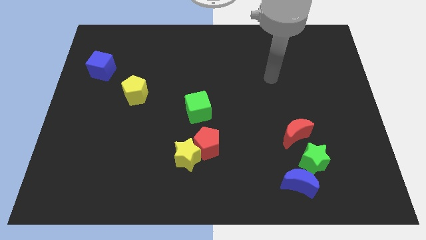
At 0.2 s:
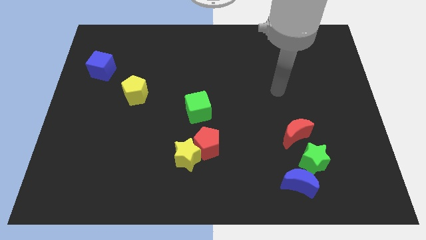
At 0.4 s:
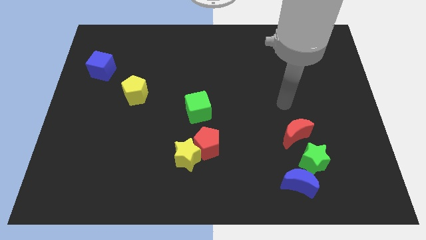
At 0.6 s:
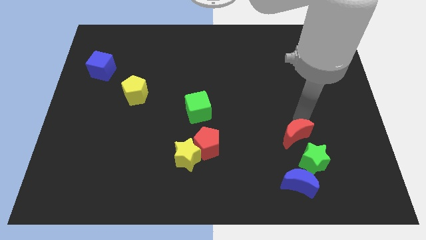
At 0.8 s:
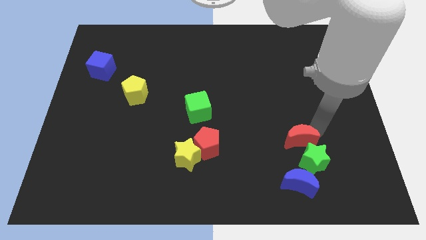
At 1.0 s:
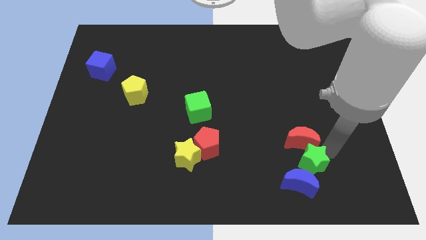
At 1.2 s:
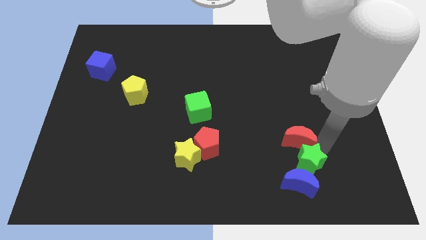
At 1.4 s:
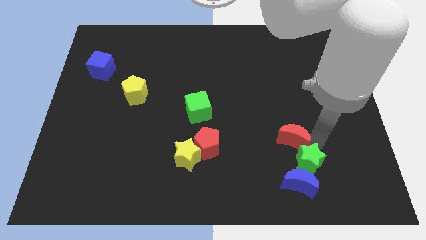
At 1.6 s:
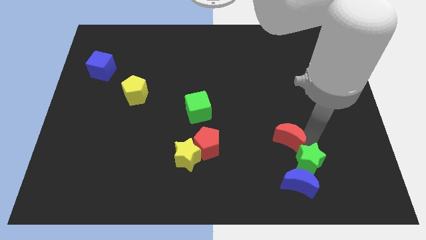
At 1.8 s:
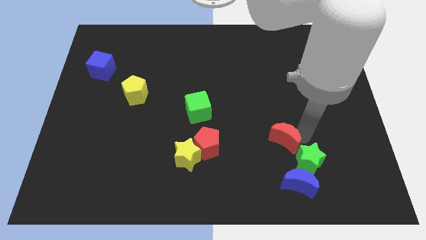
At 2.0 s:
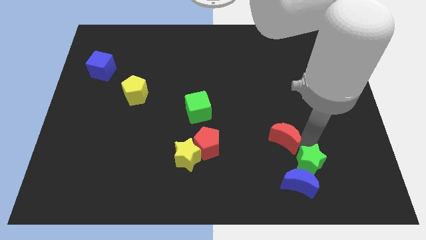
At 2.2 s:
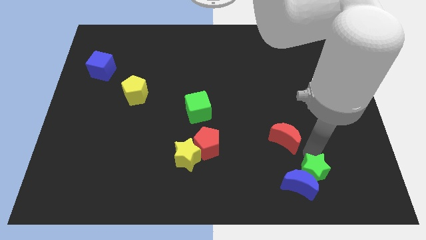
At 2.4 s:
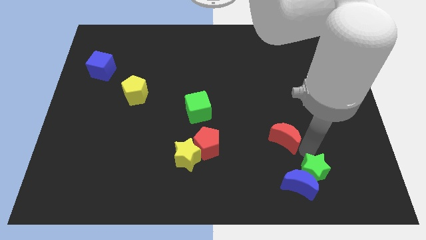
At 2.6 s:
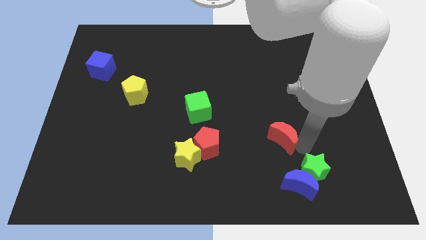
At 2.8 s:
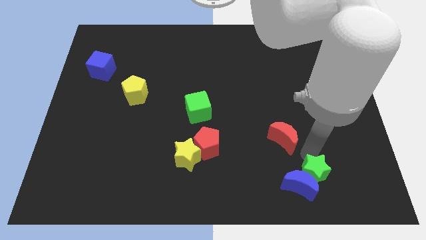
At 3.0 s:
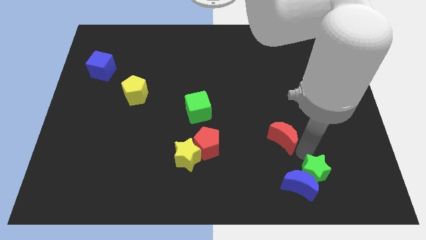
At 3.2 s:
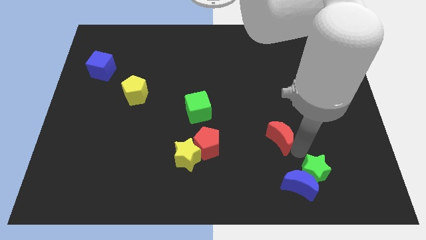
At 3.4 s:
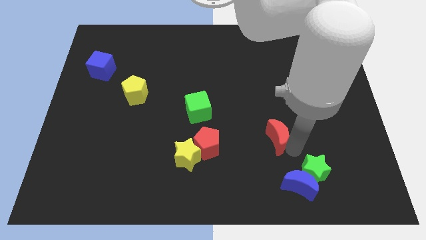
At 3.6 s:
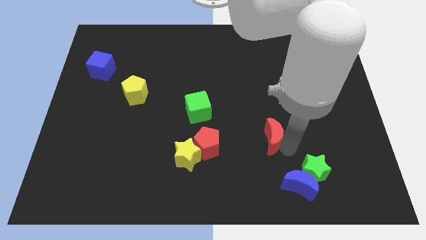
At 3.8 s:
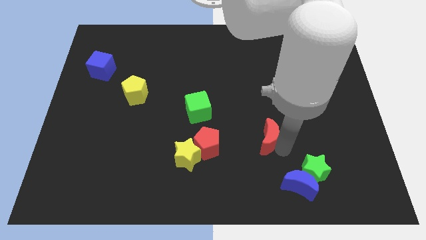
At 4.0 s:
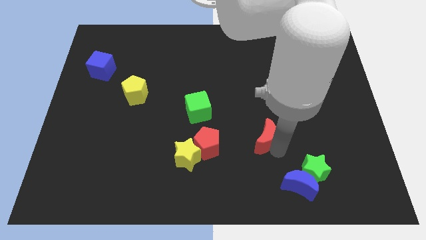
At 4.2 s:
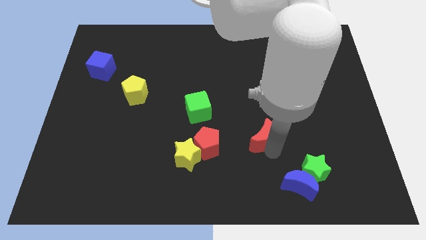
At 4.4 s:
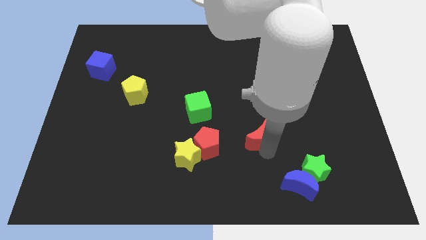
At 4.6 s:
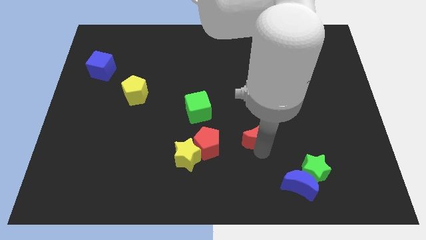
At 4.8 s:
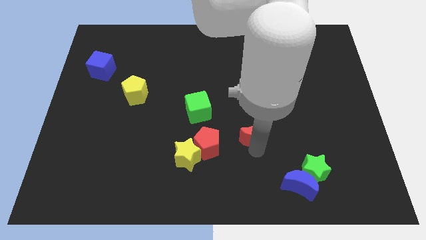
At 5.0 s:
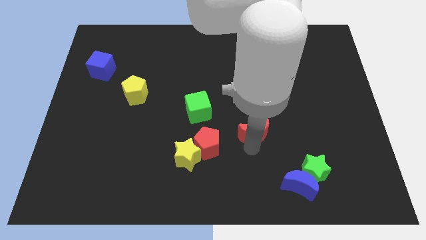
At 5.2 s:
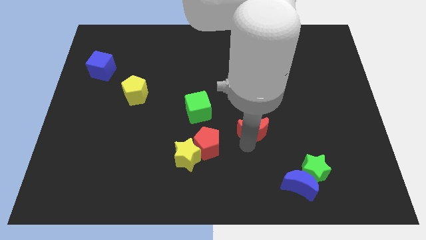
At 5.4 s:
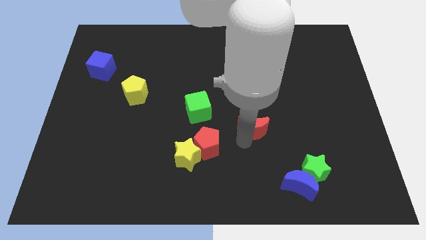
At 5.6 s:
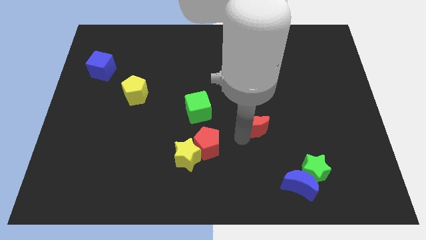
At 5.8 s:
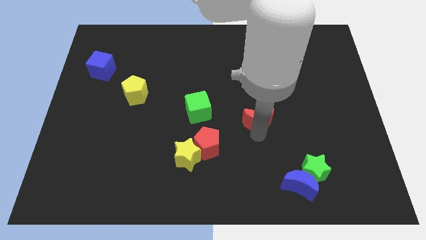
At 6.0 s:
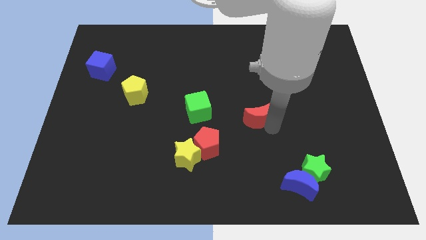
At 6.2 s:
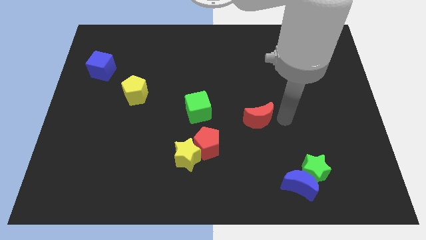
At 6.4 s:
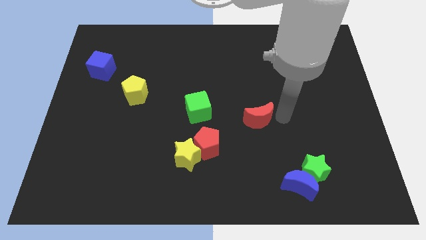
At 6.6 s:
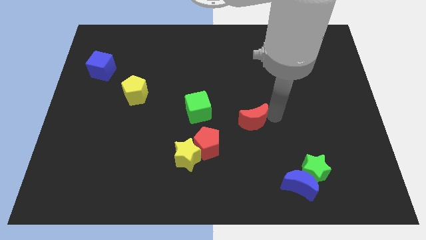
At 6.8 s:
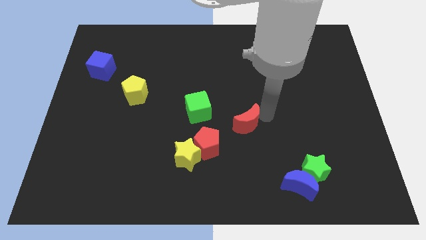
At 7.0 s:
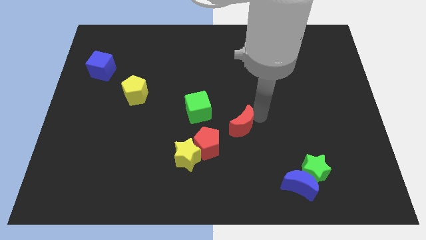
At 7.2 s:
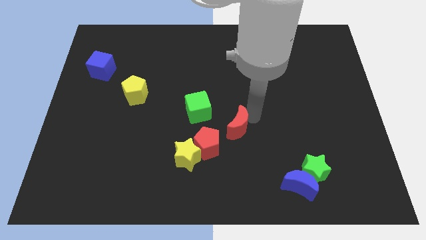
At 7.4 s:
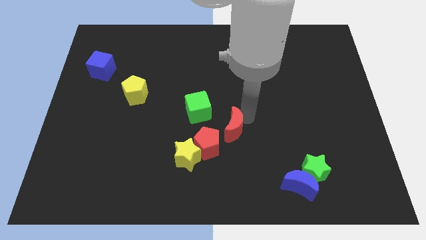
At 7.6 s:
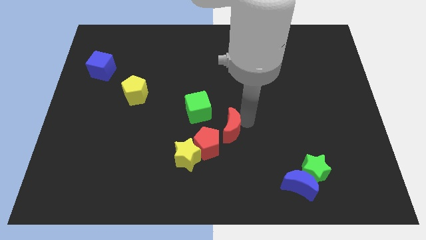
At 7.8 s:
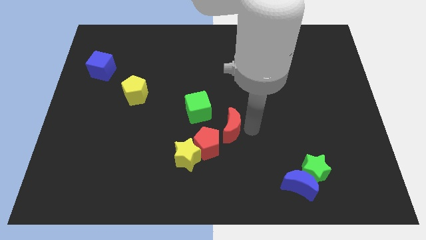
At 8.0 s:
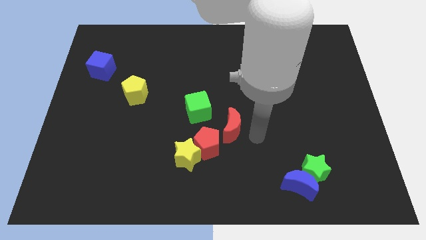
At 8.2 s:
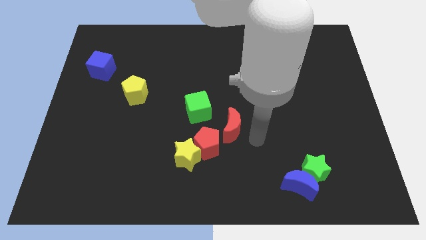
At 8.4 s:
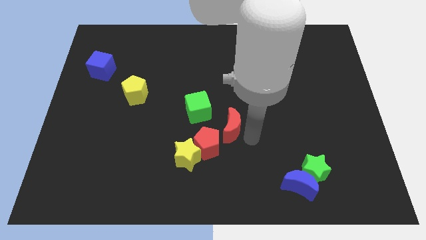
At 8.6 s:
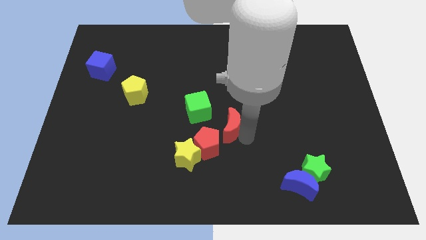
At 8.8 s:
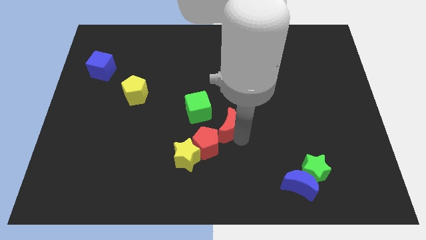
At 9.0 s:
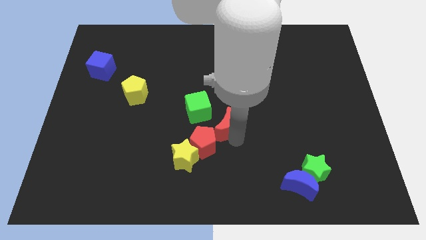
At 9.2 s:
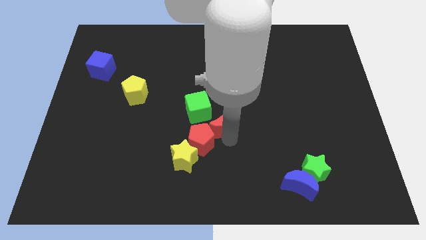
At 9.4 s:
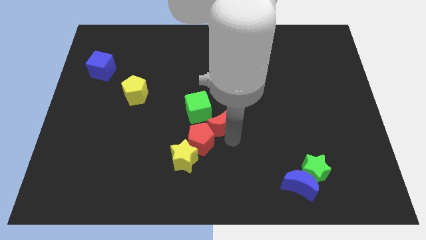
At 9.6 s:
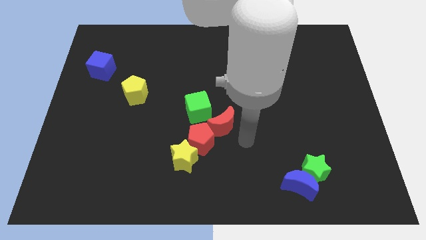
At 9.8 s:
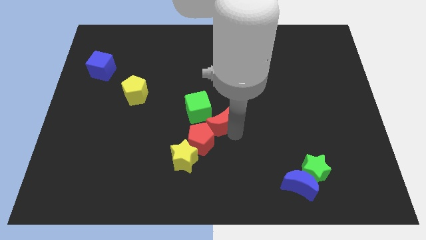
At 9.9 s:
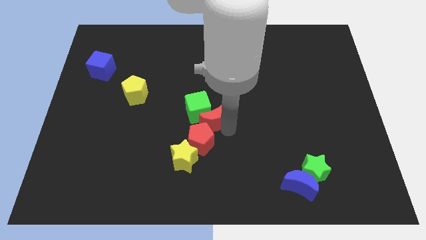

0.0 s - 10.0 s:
move the red moon next to the green cube

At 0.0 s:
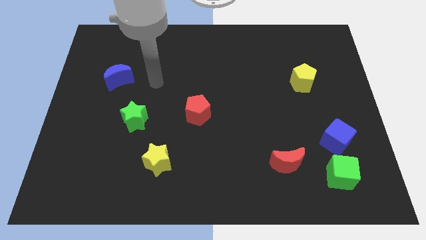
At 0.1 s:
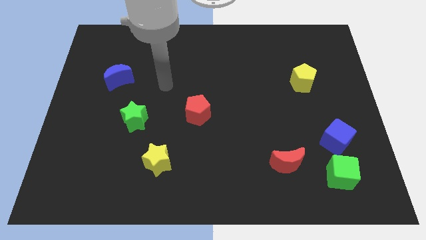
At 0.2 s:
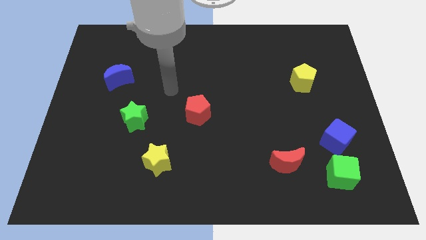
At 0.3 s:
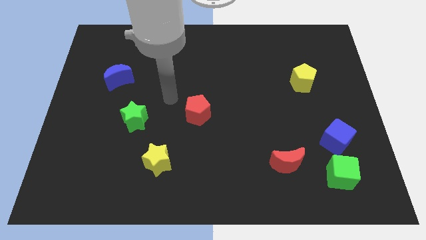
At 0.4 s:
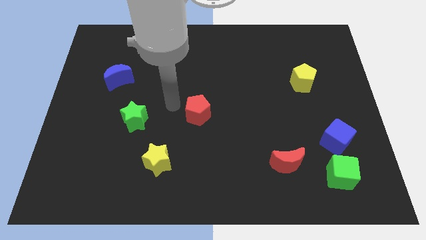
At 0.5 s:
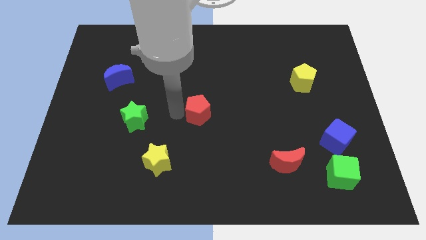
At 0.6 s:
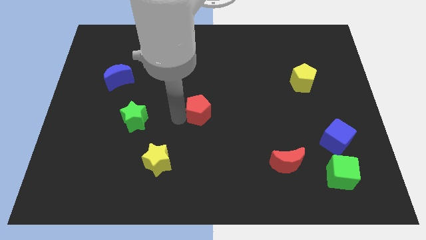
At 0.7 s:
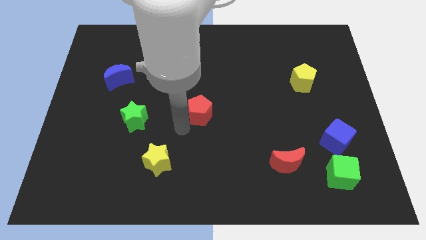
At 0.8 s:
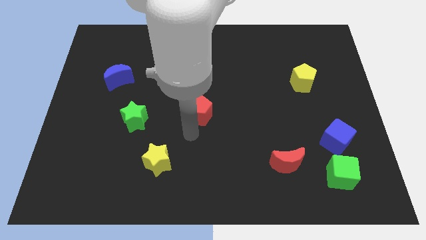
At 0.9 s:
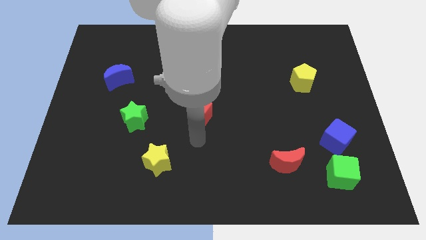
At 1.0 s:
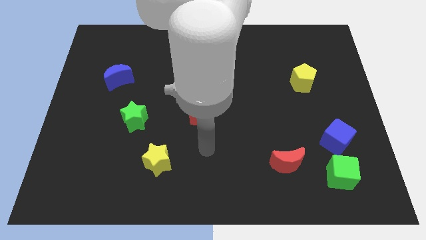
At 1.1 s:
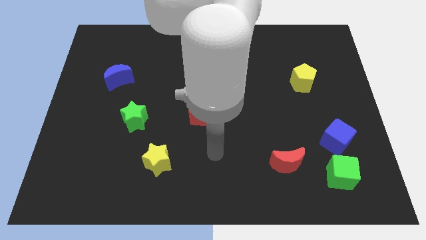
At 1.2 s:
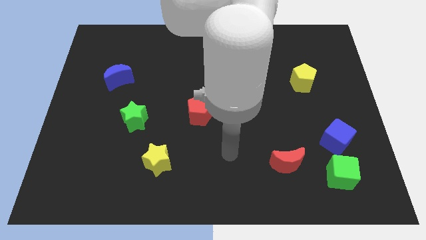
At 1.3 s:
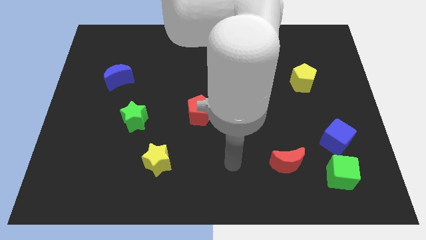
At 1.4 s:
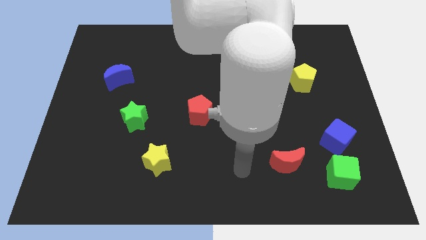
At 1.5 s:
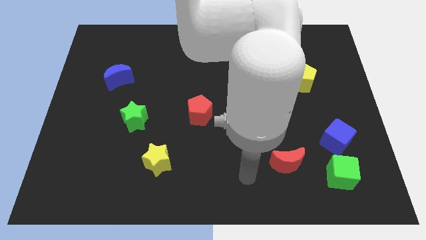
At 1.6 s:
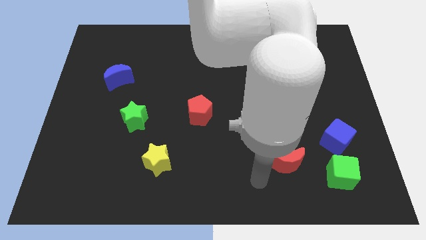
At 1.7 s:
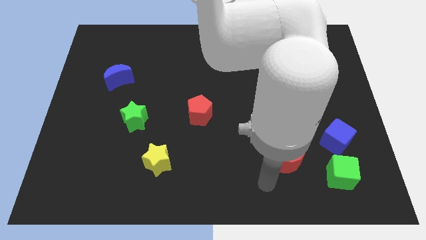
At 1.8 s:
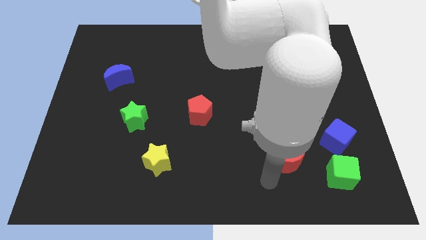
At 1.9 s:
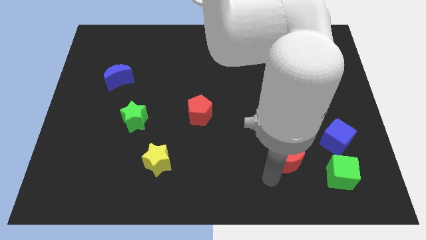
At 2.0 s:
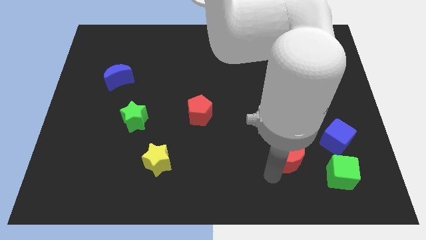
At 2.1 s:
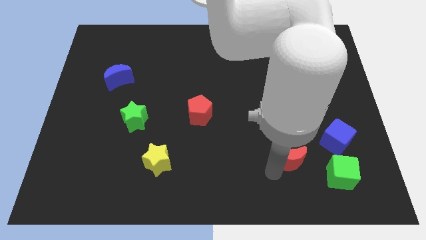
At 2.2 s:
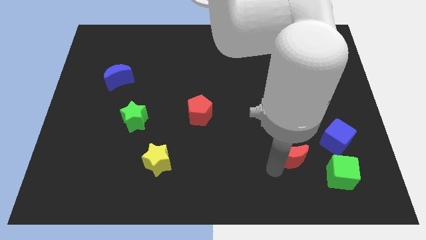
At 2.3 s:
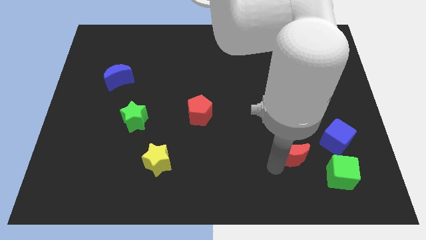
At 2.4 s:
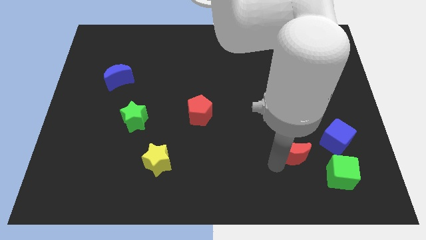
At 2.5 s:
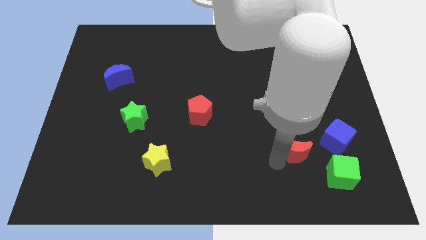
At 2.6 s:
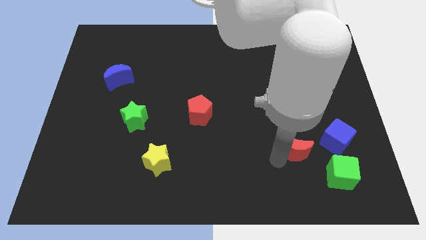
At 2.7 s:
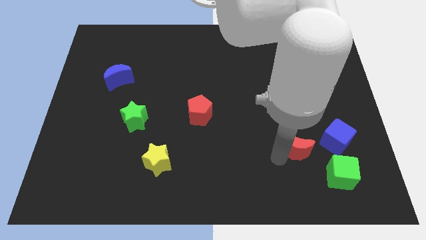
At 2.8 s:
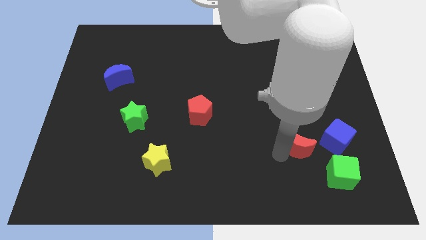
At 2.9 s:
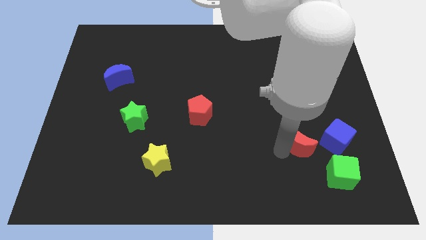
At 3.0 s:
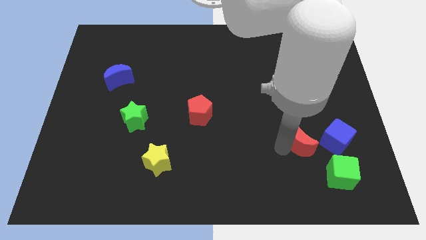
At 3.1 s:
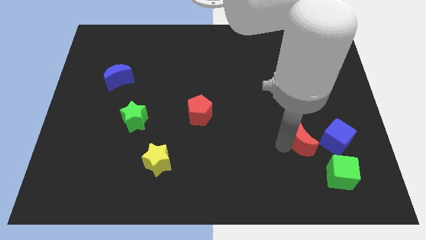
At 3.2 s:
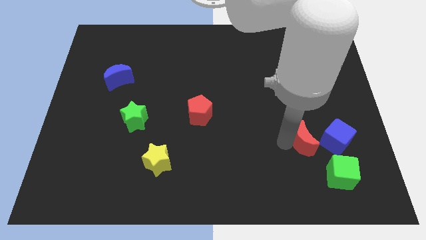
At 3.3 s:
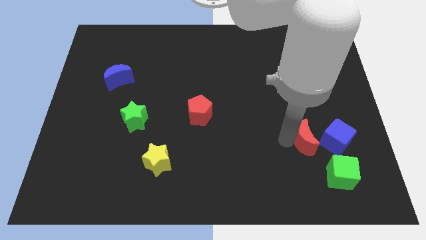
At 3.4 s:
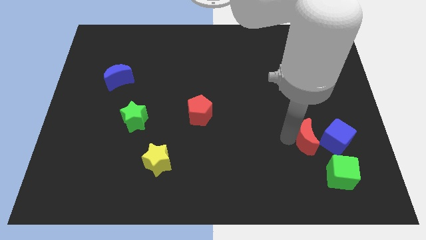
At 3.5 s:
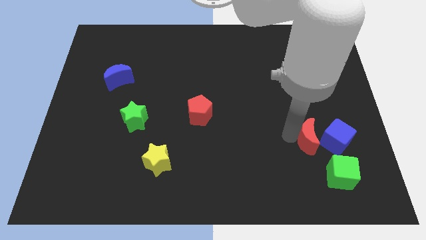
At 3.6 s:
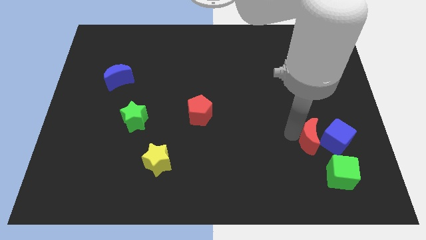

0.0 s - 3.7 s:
move the red moon next to the blue cube
